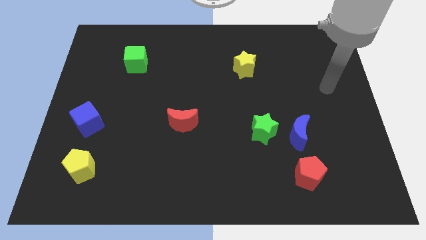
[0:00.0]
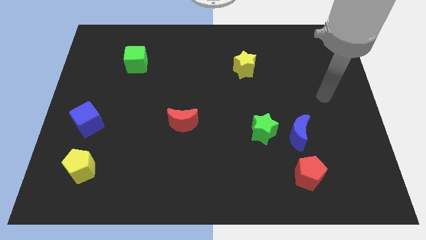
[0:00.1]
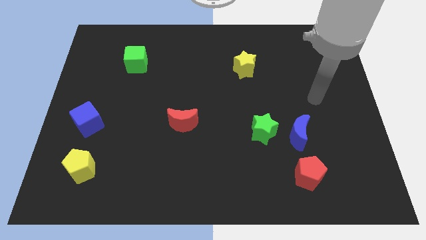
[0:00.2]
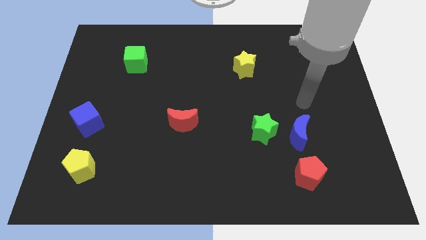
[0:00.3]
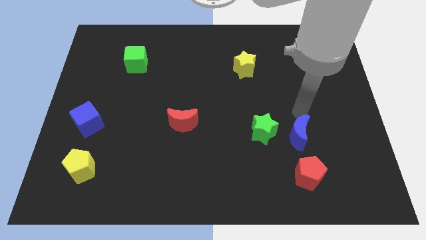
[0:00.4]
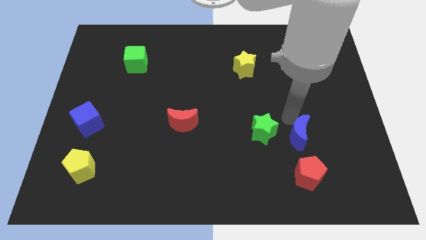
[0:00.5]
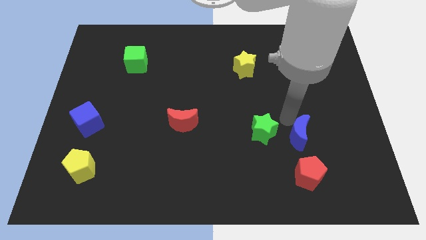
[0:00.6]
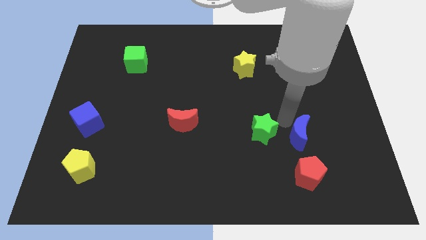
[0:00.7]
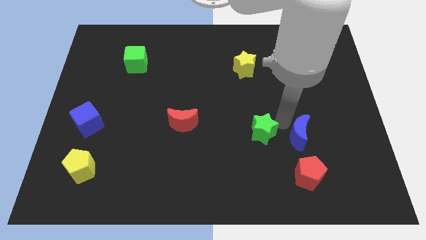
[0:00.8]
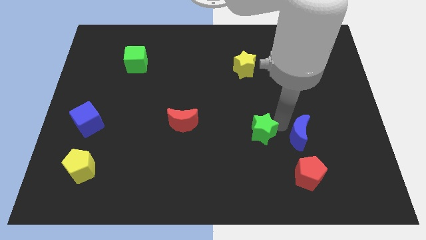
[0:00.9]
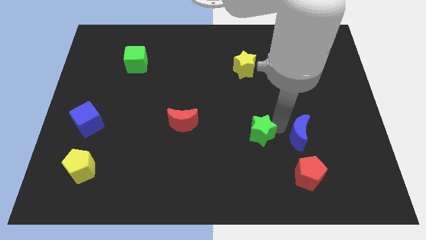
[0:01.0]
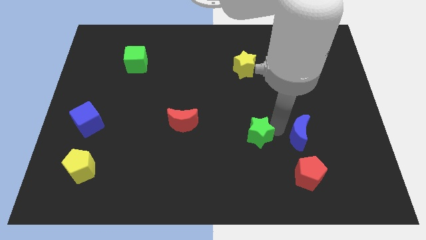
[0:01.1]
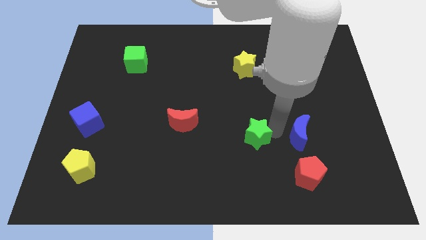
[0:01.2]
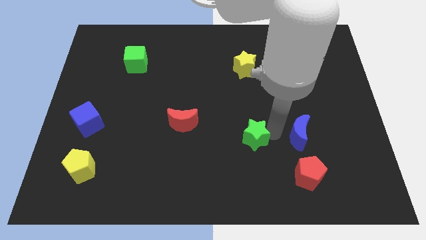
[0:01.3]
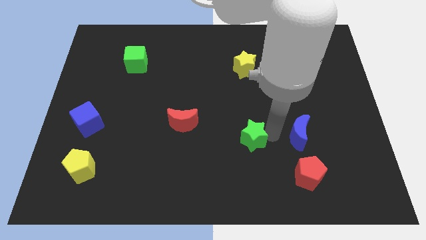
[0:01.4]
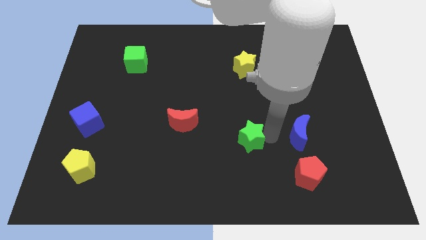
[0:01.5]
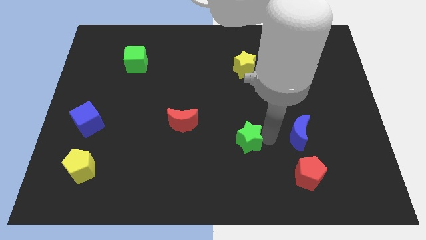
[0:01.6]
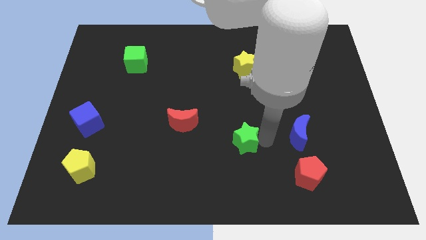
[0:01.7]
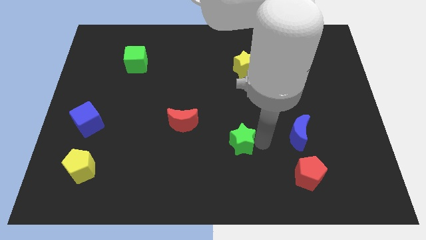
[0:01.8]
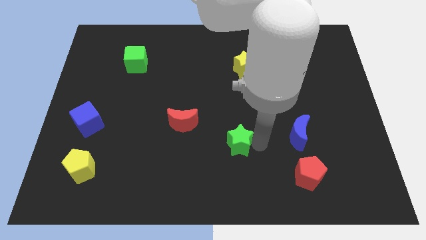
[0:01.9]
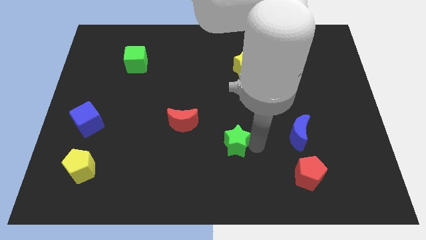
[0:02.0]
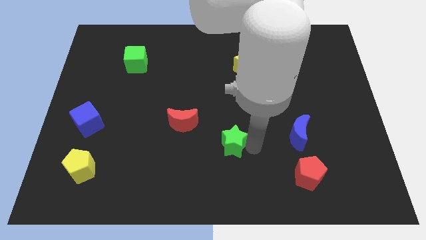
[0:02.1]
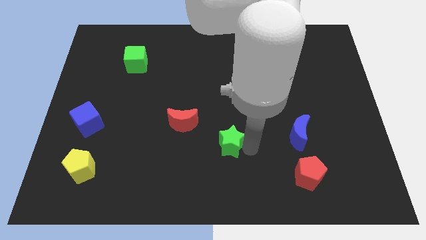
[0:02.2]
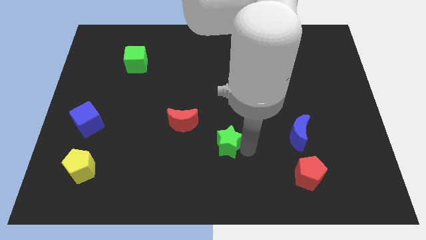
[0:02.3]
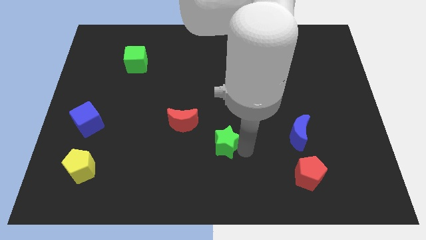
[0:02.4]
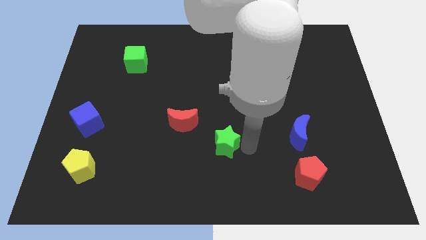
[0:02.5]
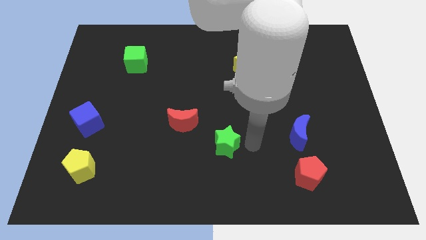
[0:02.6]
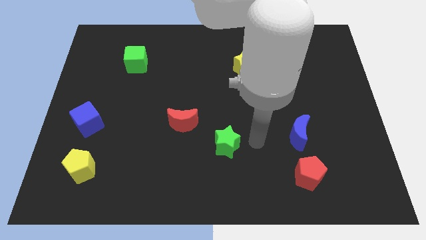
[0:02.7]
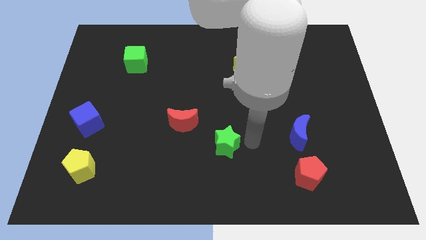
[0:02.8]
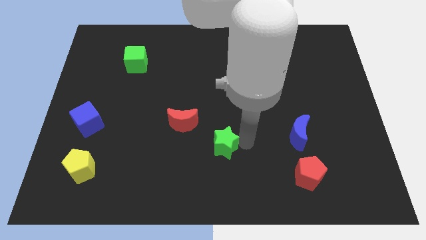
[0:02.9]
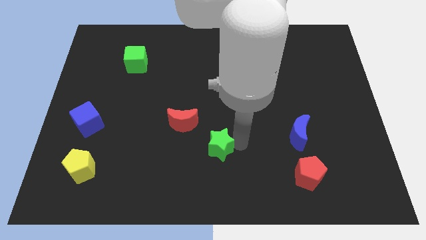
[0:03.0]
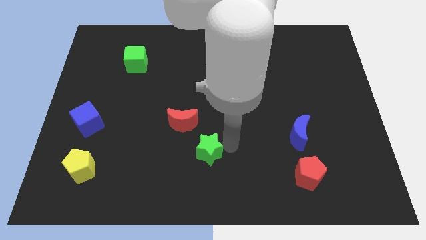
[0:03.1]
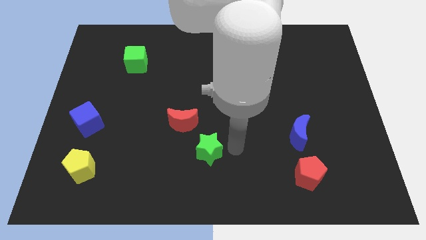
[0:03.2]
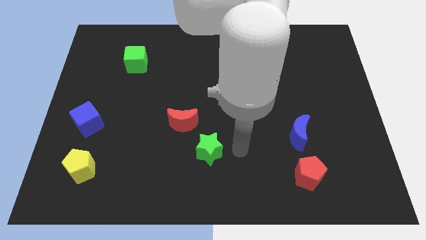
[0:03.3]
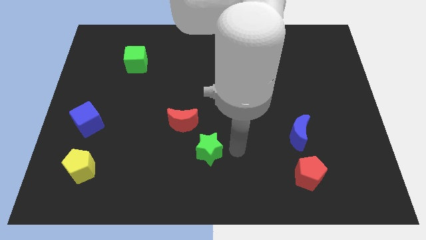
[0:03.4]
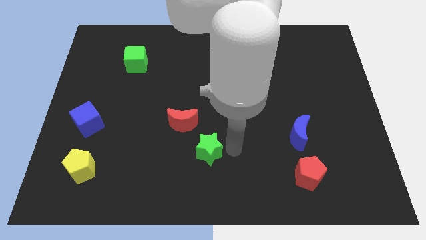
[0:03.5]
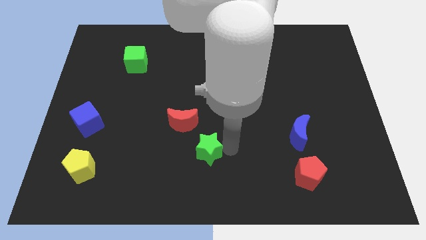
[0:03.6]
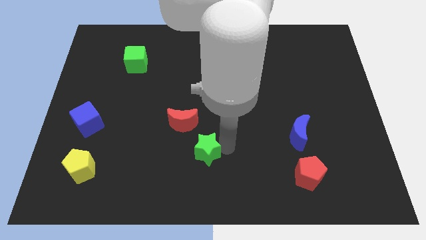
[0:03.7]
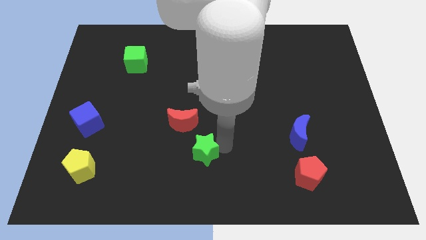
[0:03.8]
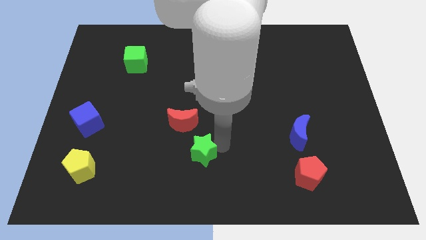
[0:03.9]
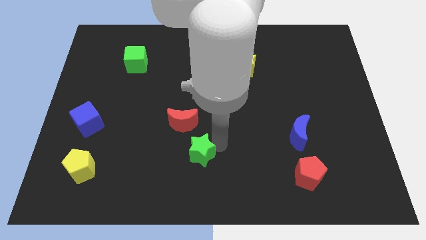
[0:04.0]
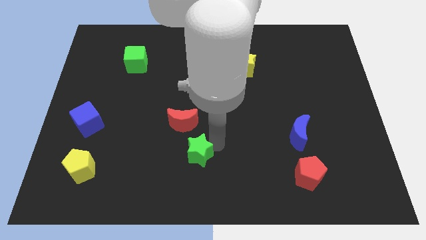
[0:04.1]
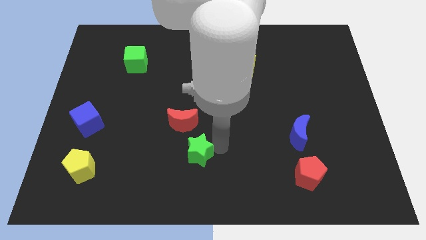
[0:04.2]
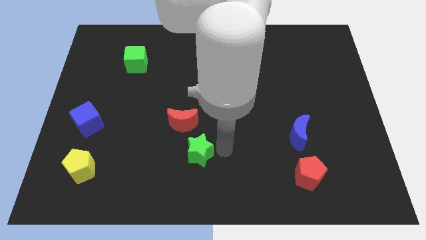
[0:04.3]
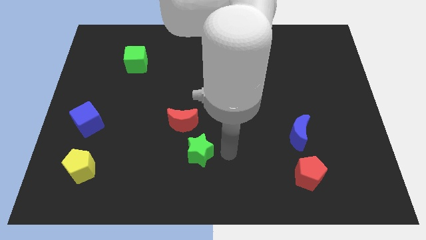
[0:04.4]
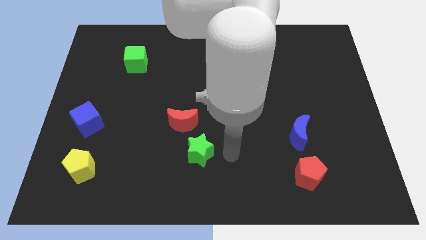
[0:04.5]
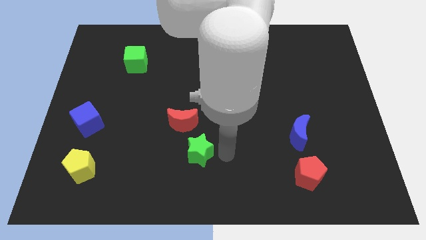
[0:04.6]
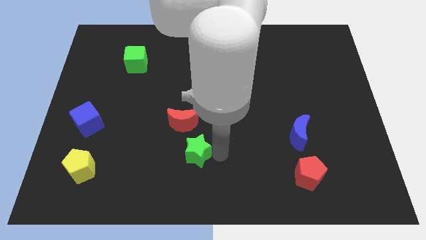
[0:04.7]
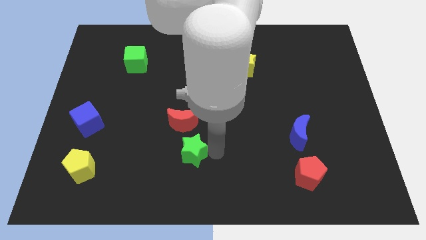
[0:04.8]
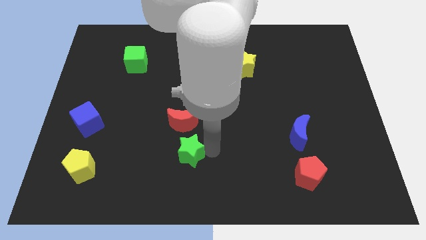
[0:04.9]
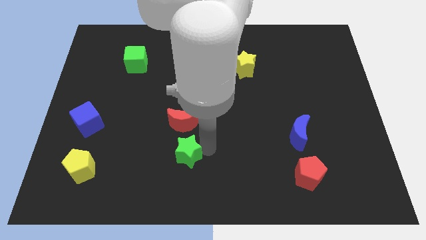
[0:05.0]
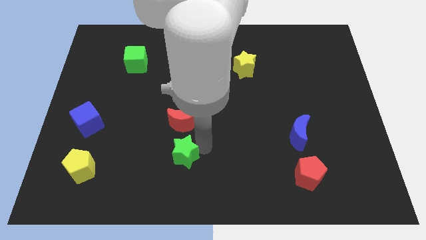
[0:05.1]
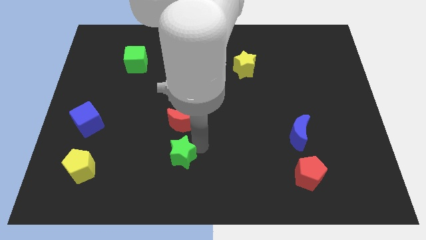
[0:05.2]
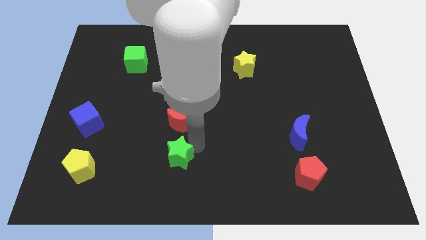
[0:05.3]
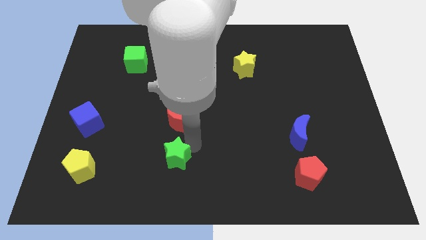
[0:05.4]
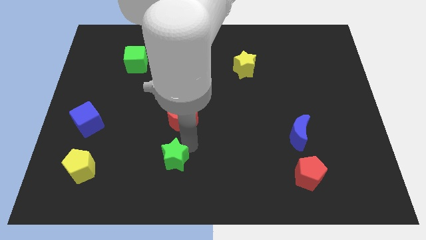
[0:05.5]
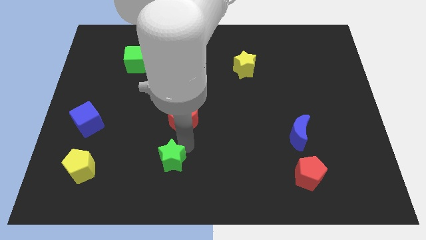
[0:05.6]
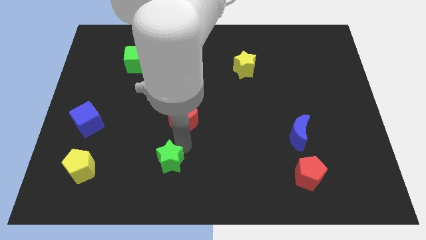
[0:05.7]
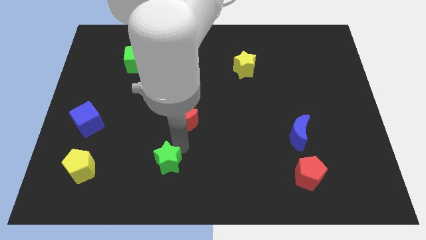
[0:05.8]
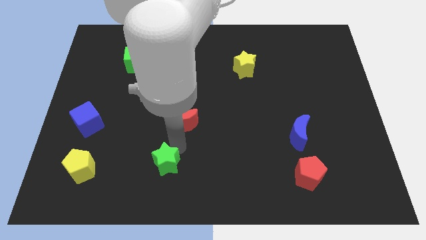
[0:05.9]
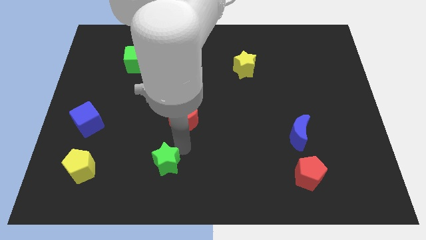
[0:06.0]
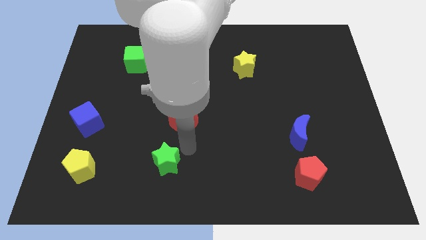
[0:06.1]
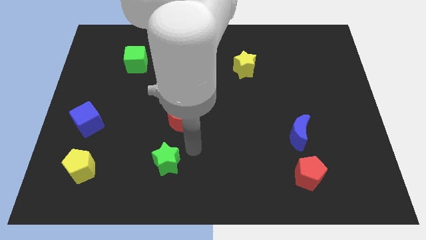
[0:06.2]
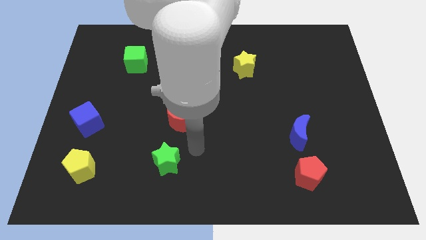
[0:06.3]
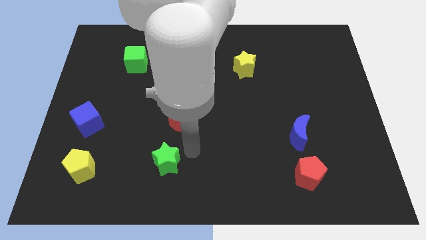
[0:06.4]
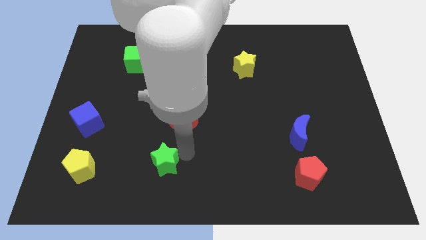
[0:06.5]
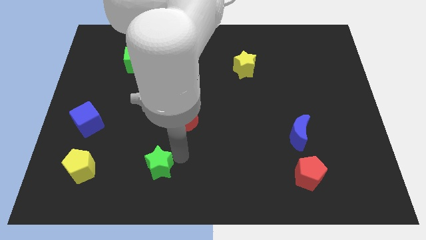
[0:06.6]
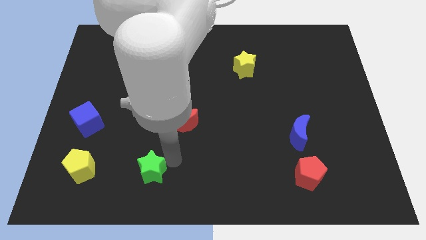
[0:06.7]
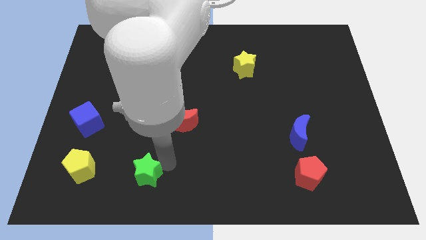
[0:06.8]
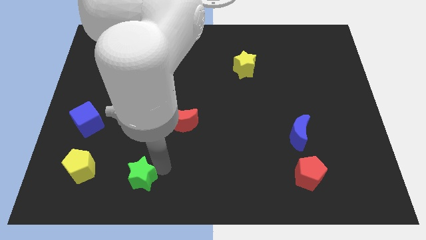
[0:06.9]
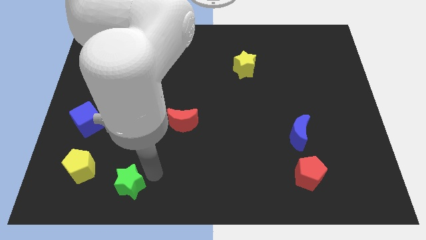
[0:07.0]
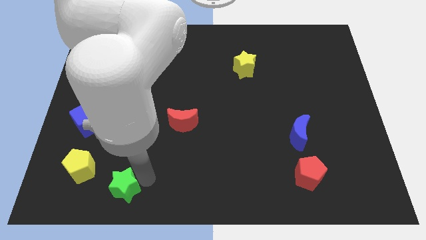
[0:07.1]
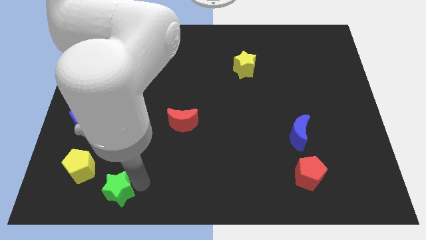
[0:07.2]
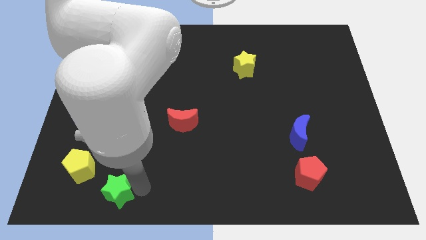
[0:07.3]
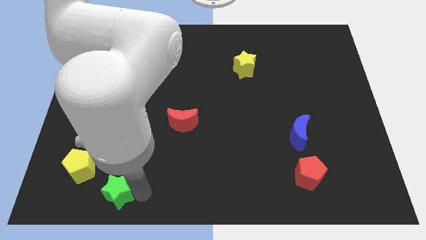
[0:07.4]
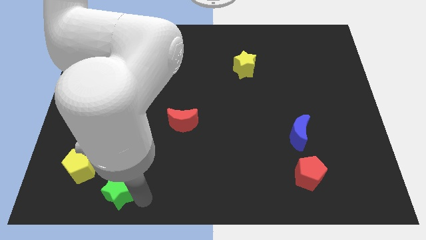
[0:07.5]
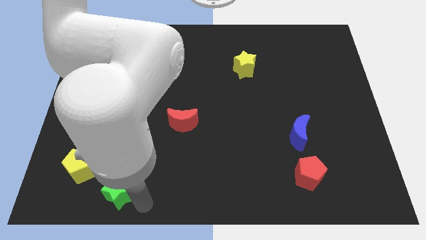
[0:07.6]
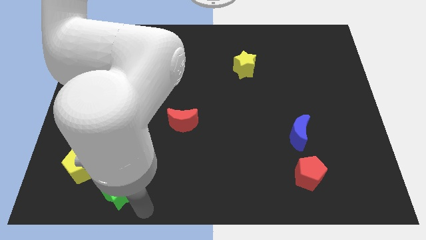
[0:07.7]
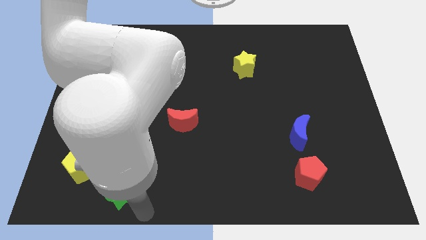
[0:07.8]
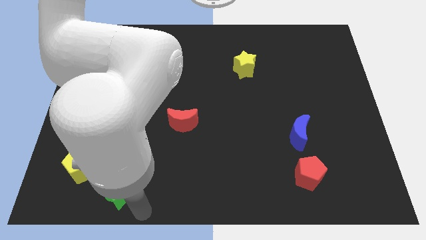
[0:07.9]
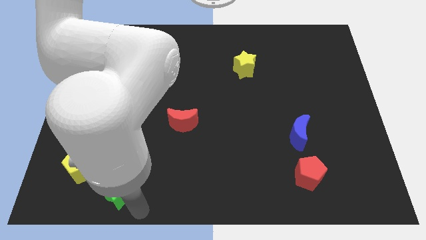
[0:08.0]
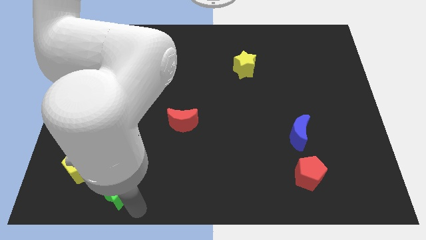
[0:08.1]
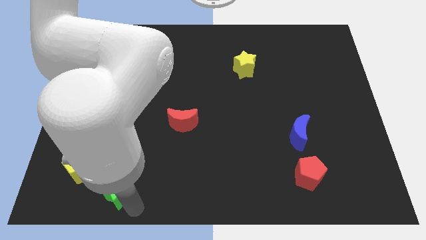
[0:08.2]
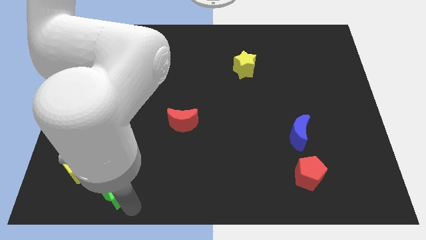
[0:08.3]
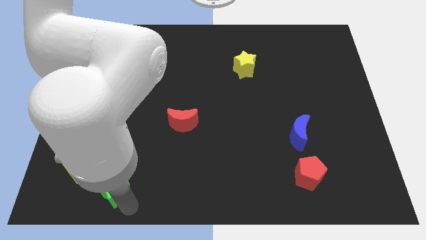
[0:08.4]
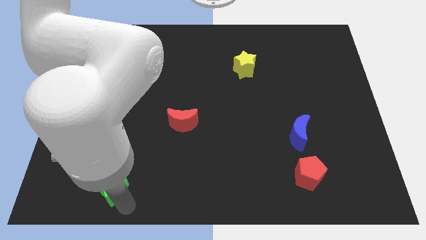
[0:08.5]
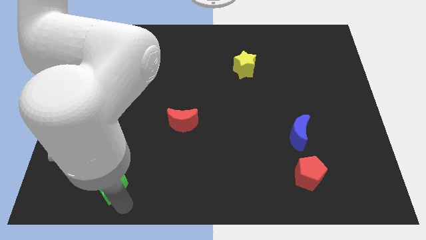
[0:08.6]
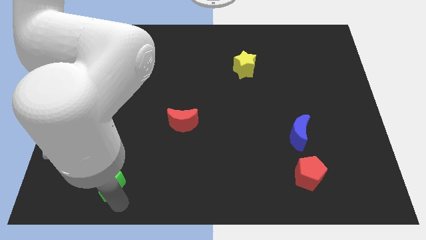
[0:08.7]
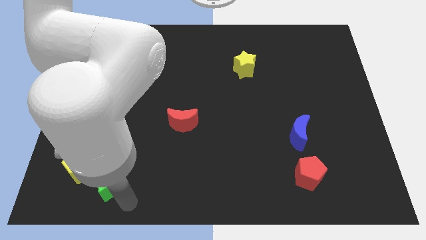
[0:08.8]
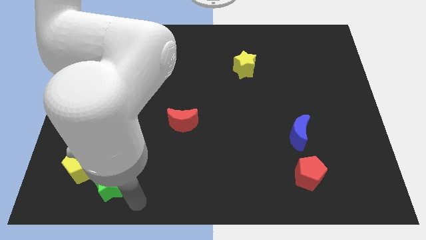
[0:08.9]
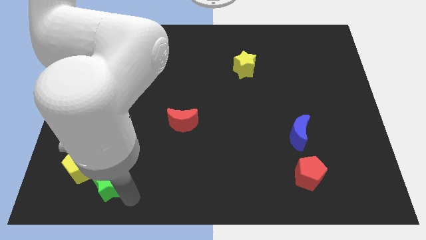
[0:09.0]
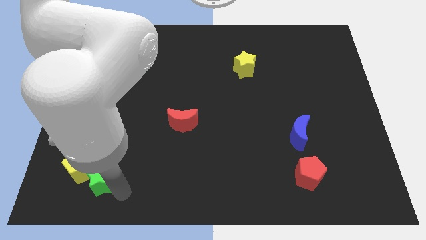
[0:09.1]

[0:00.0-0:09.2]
put the green star close to the yellow pentagon
